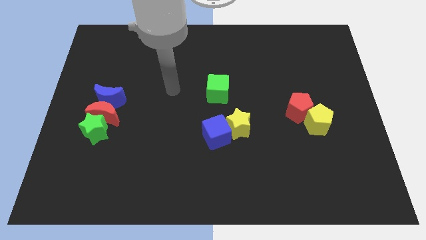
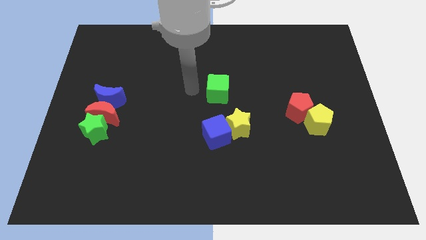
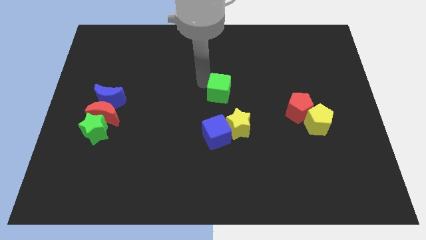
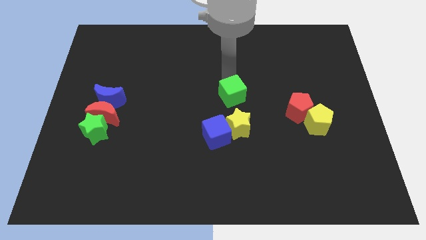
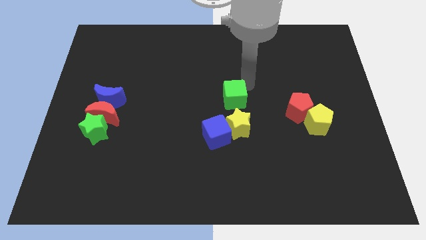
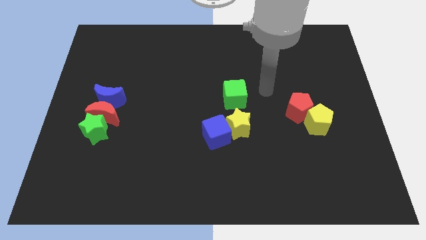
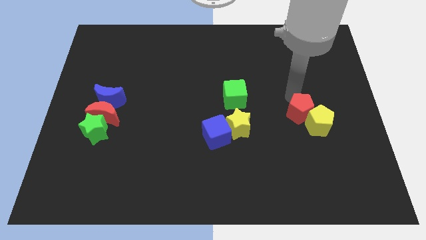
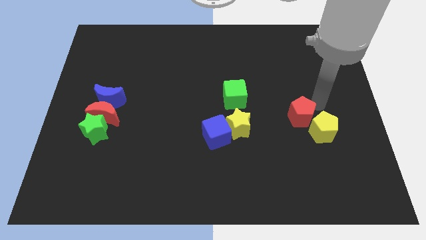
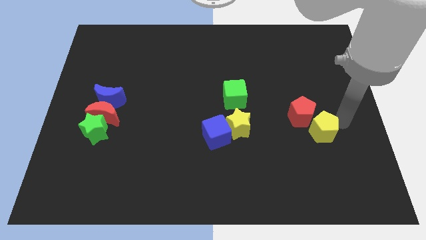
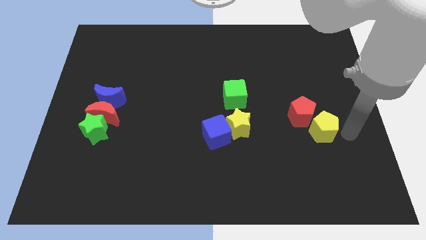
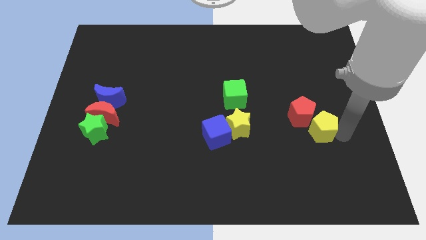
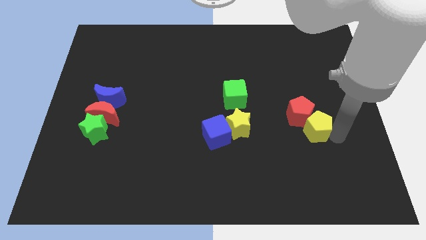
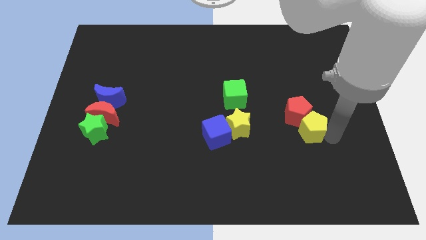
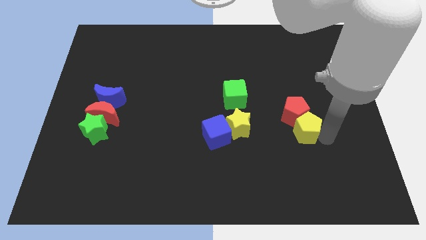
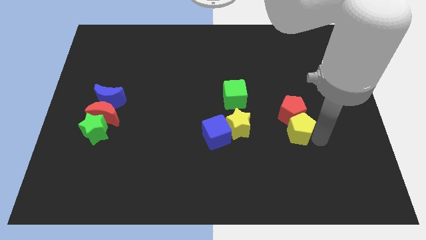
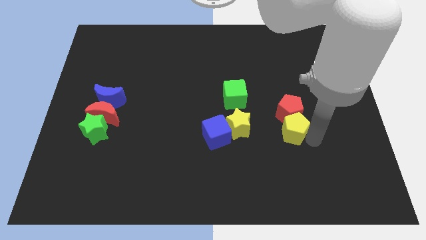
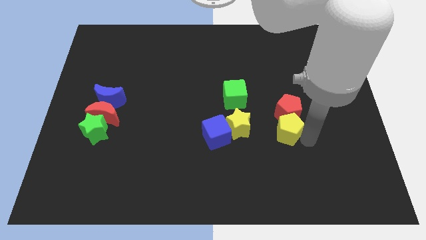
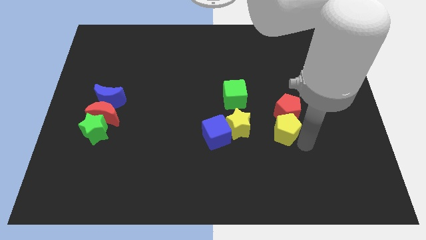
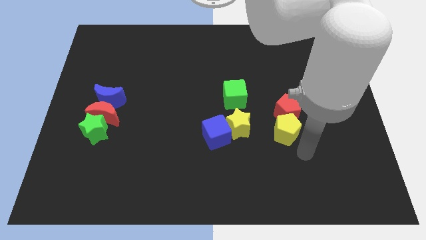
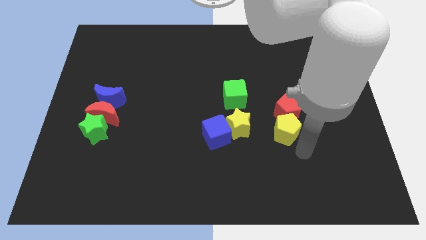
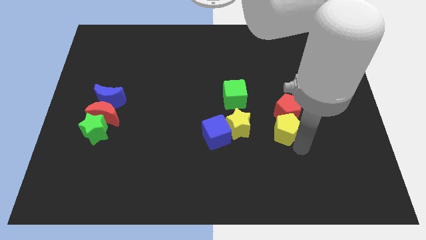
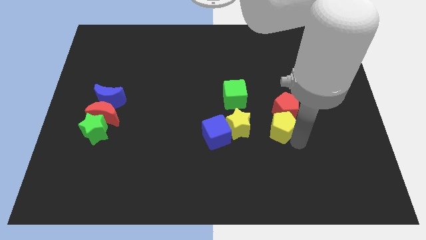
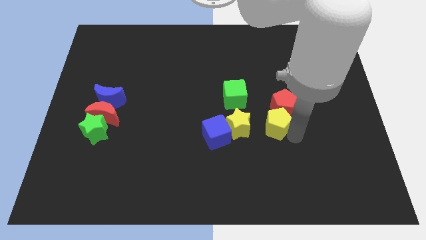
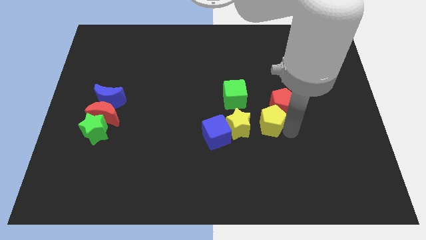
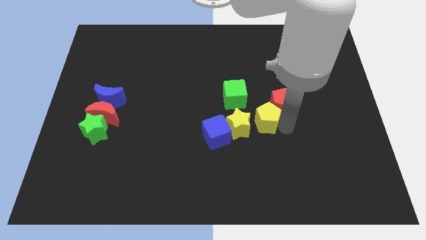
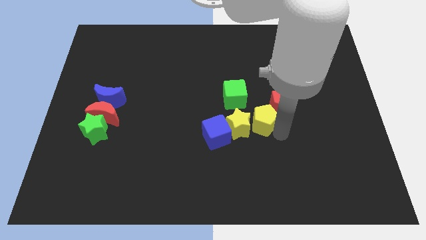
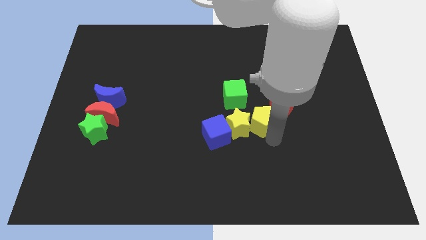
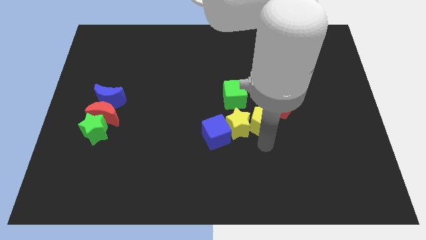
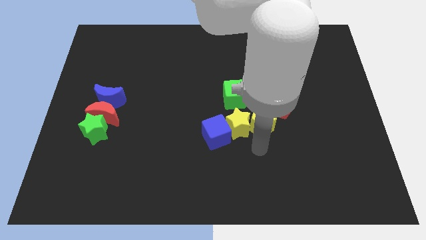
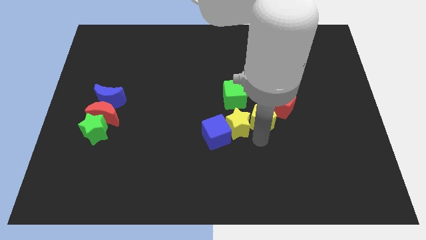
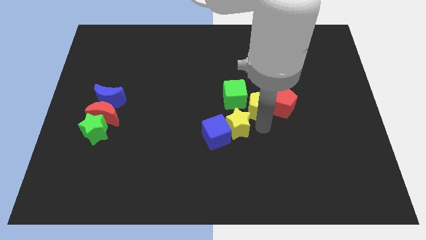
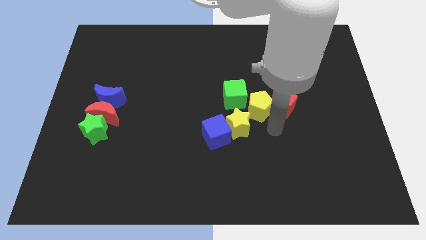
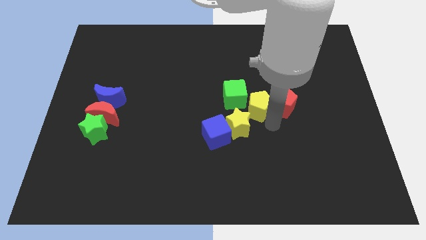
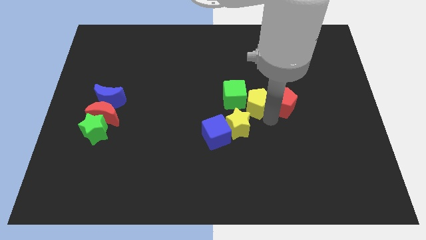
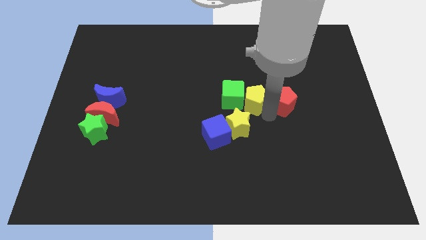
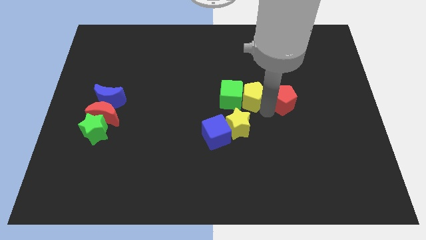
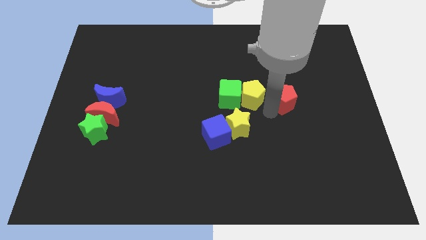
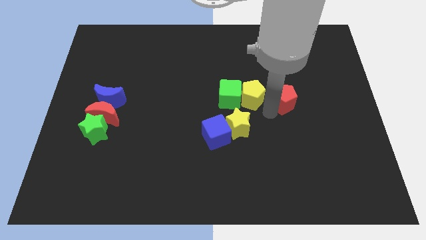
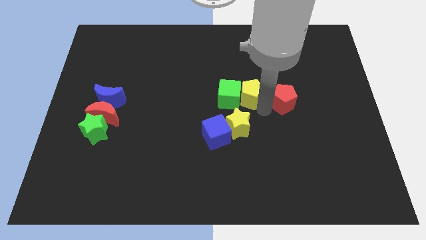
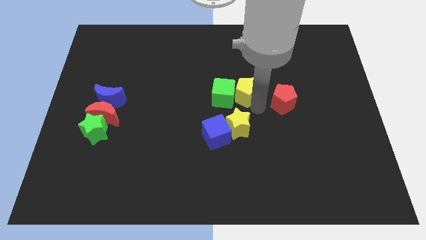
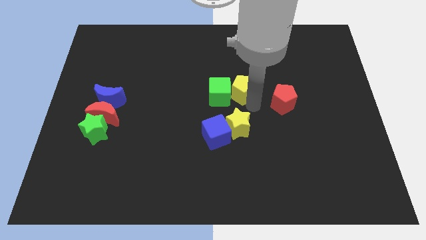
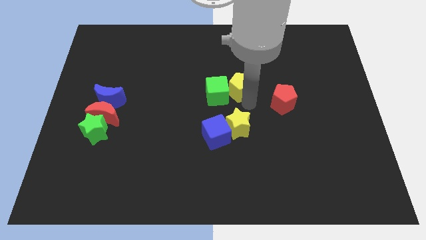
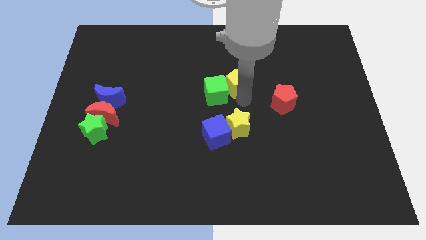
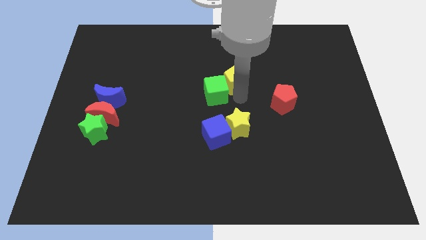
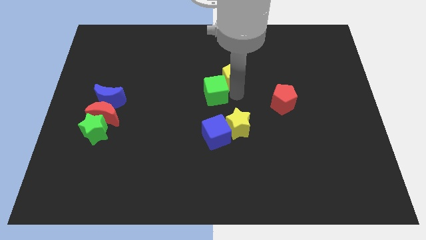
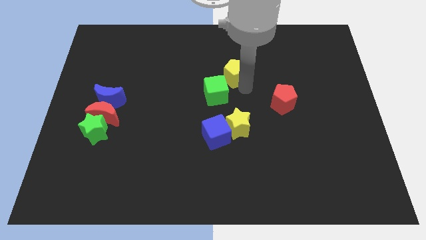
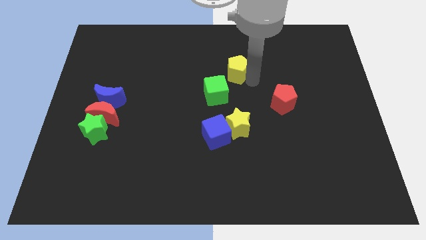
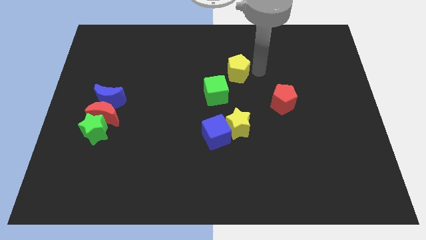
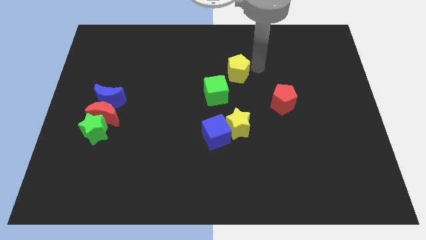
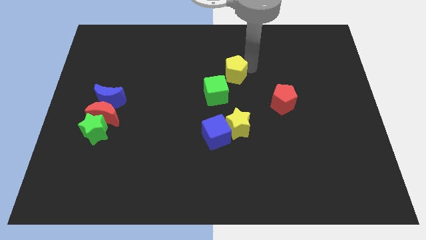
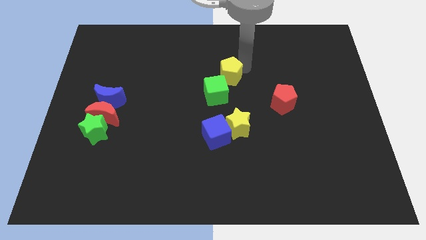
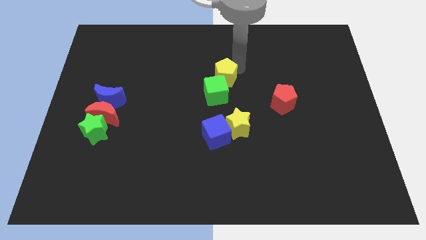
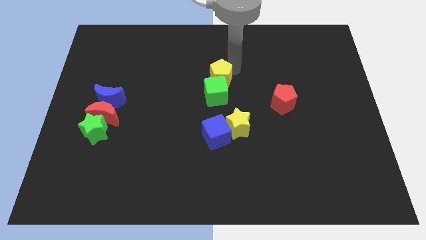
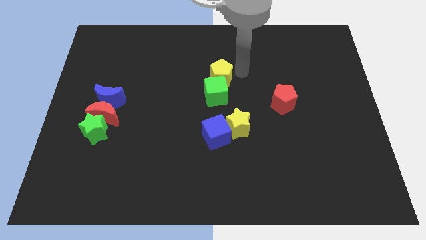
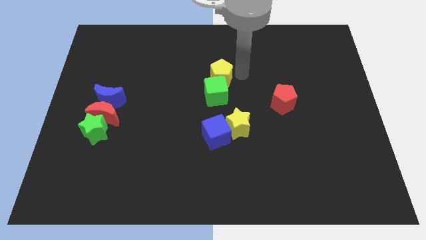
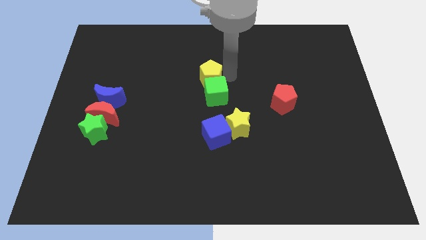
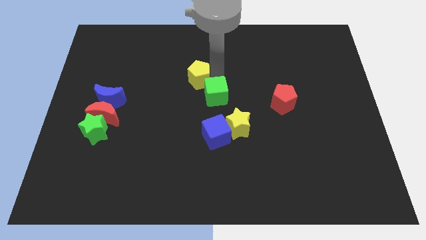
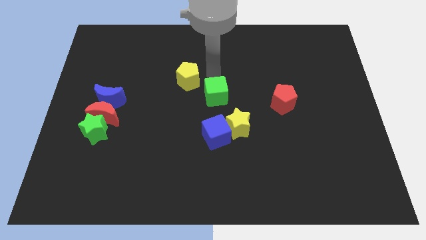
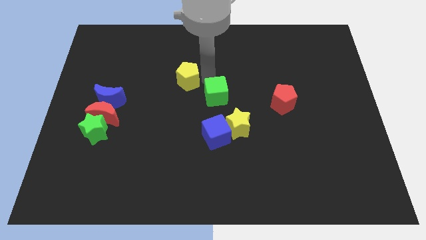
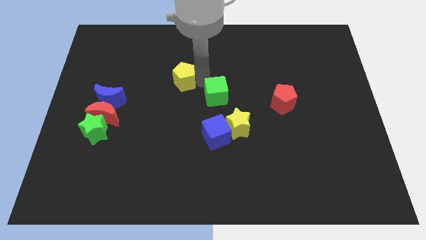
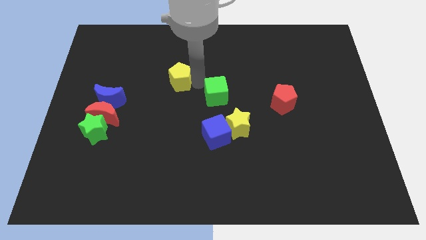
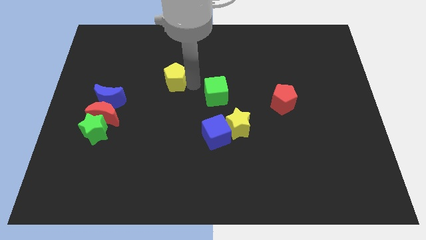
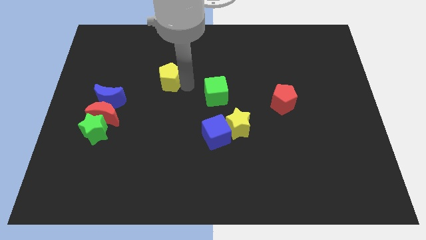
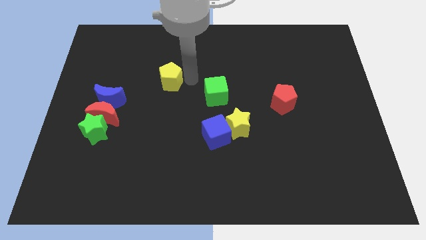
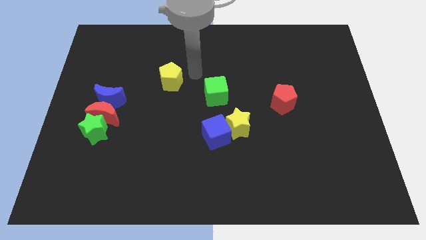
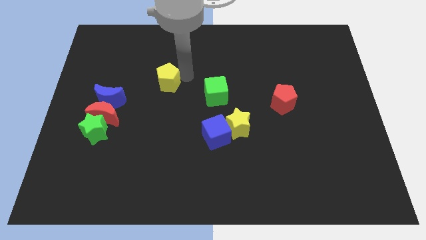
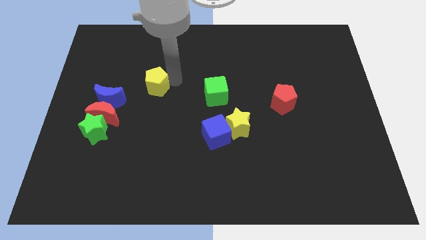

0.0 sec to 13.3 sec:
move the yellow pentagon to the top right of the blue moon

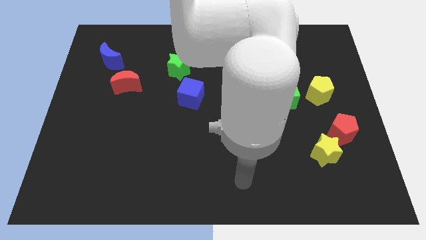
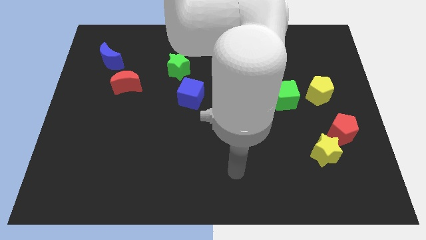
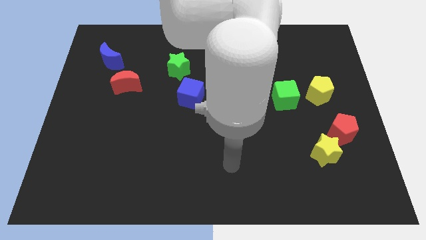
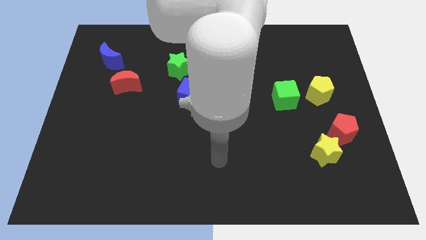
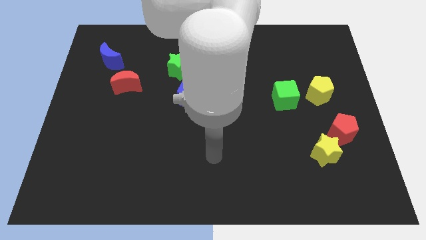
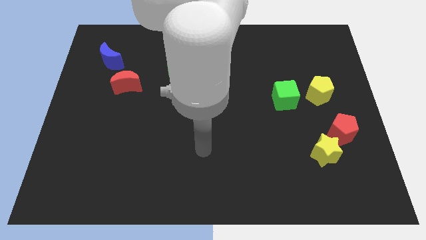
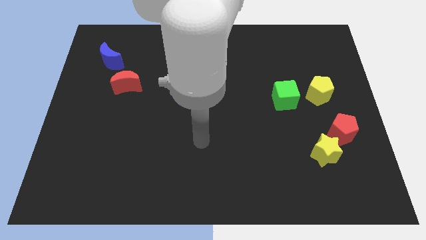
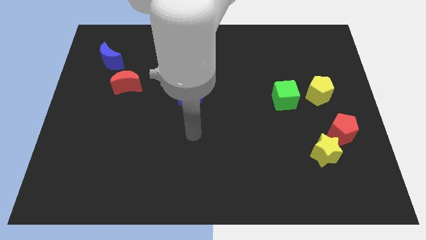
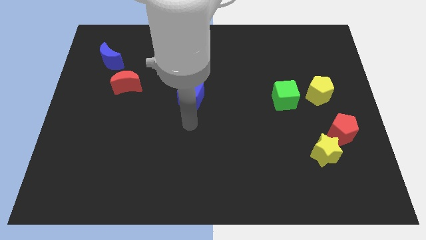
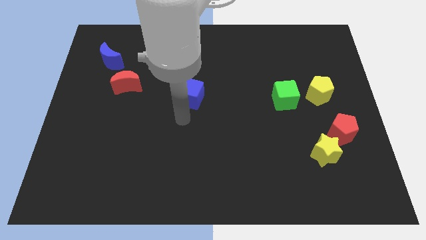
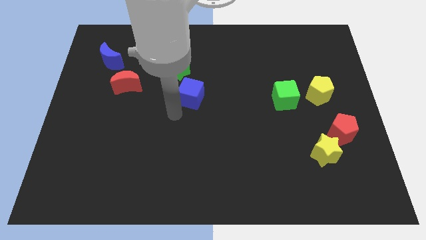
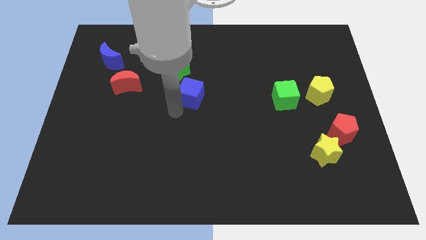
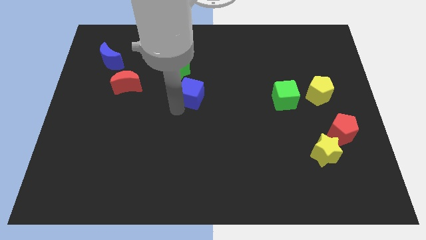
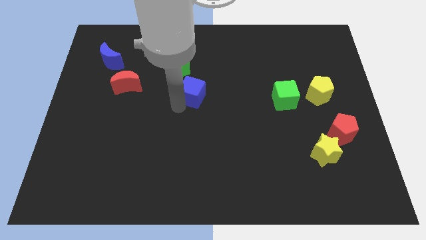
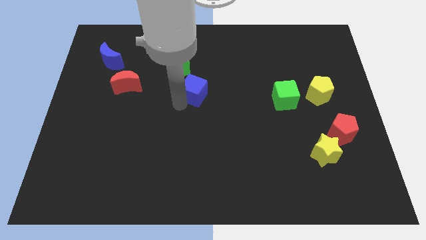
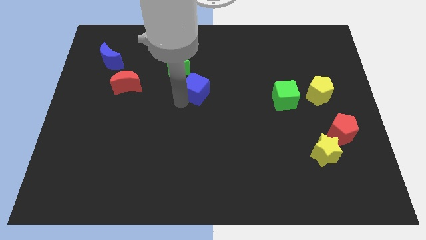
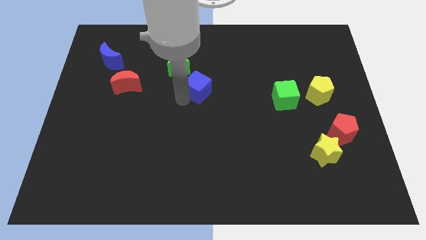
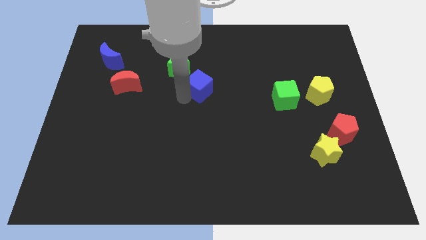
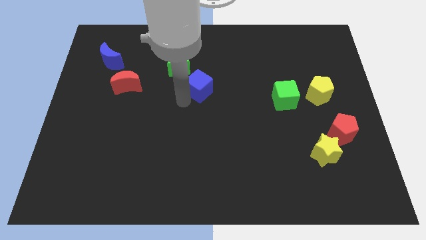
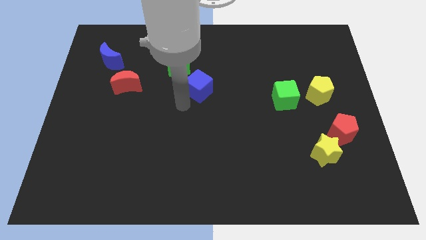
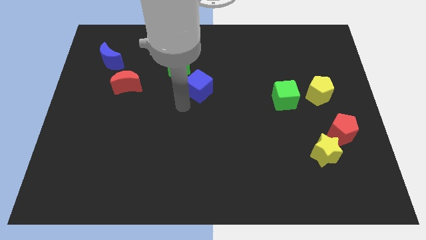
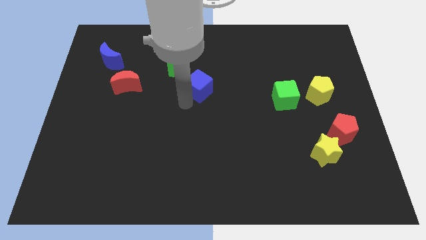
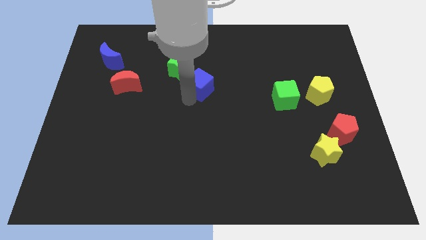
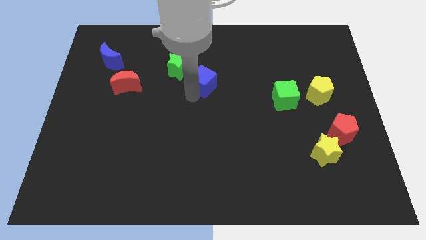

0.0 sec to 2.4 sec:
move the blue cube just right of the green star
